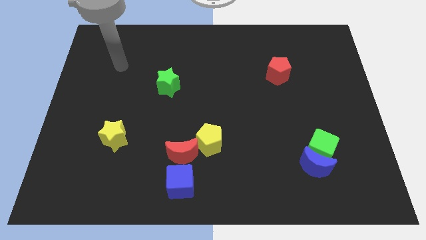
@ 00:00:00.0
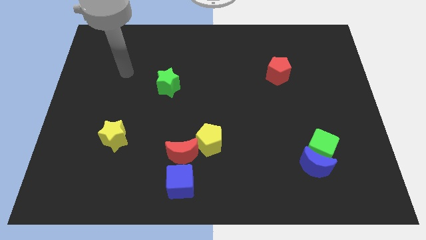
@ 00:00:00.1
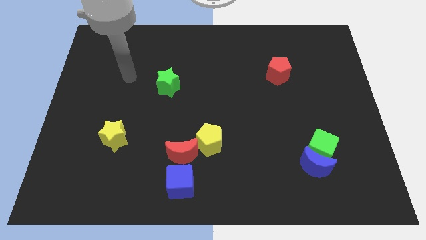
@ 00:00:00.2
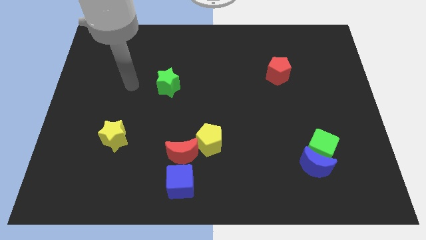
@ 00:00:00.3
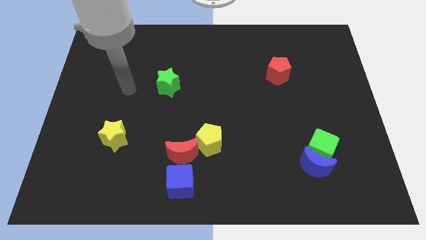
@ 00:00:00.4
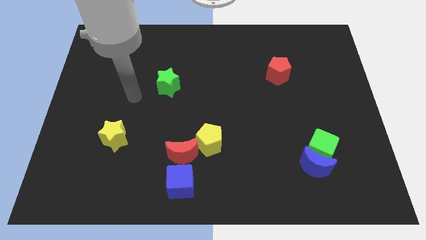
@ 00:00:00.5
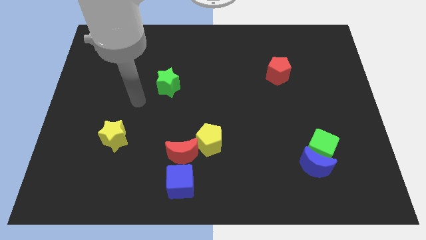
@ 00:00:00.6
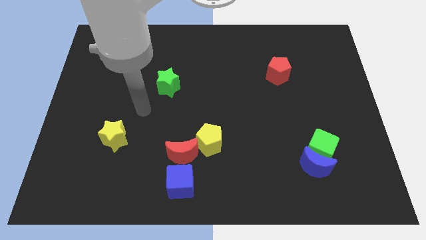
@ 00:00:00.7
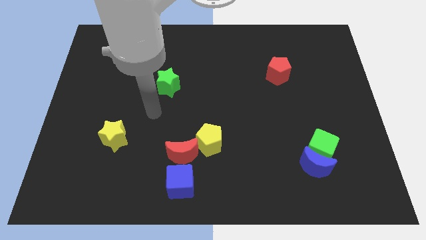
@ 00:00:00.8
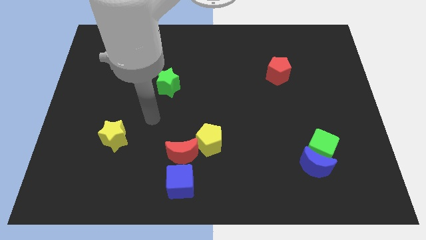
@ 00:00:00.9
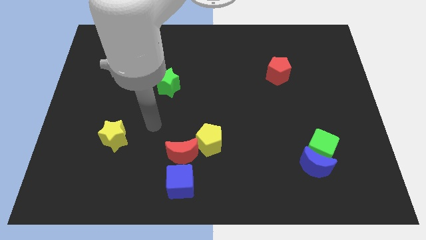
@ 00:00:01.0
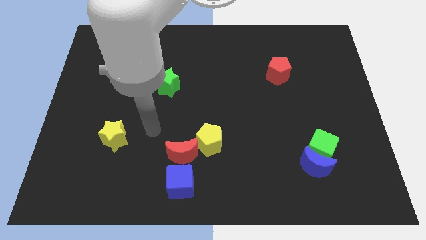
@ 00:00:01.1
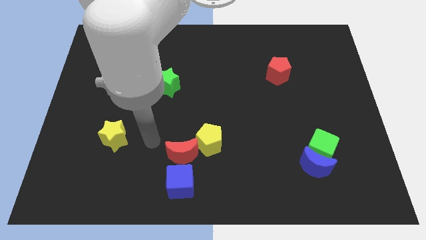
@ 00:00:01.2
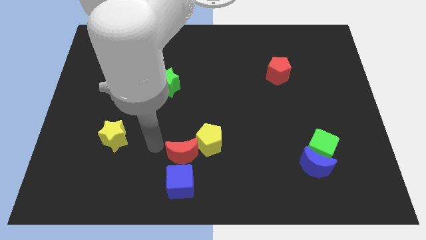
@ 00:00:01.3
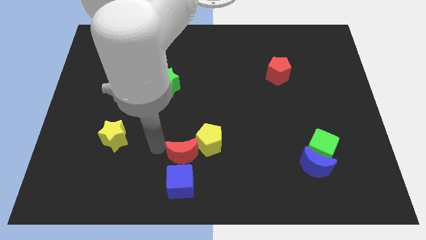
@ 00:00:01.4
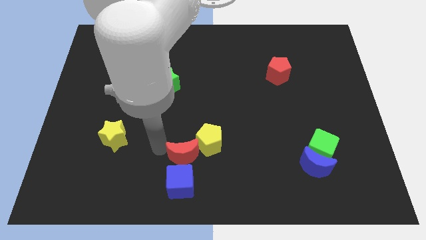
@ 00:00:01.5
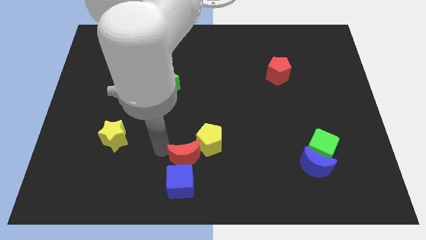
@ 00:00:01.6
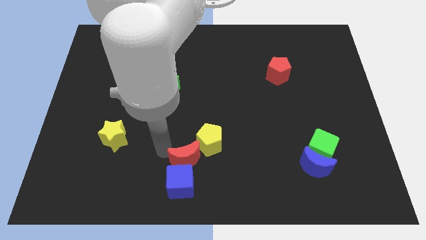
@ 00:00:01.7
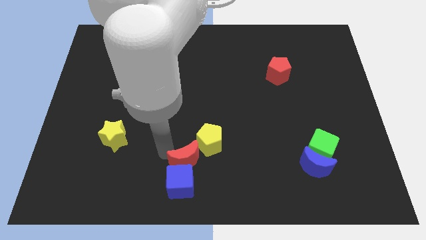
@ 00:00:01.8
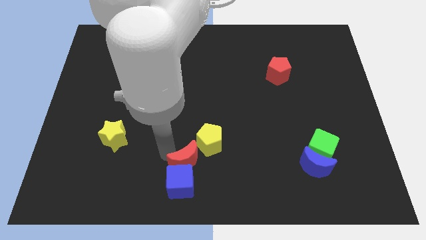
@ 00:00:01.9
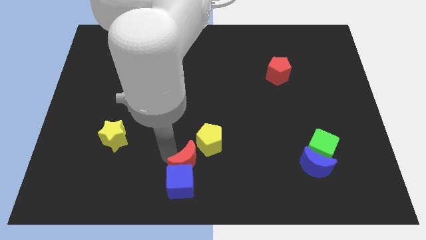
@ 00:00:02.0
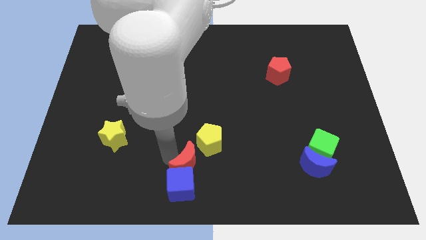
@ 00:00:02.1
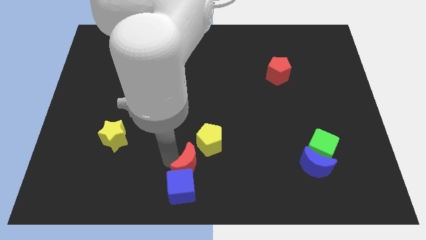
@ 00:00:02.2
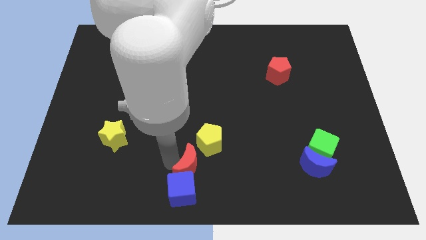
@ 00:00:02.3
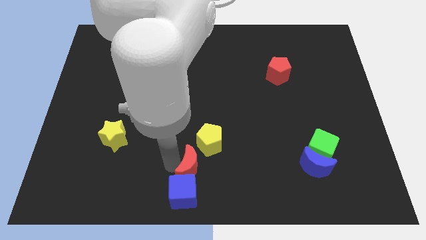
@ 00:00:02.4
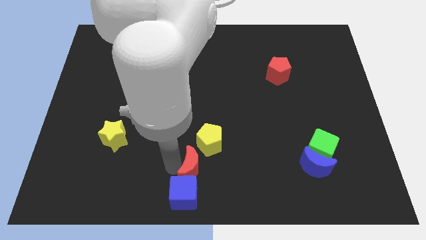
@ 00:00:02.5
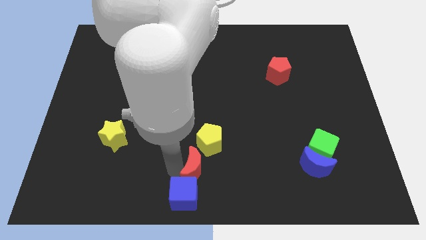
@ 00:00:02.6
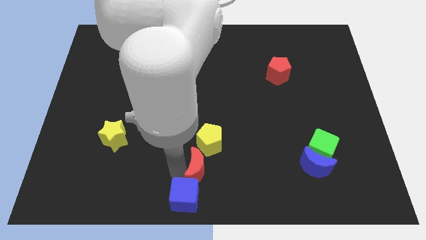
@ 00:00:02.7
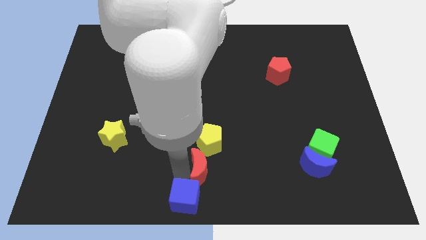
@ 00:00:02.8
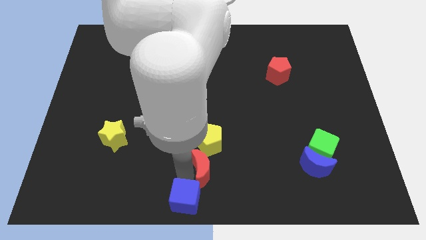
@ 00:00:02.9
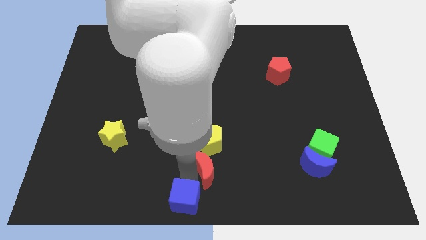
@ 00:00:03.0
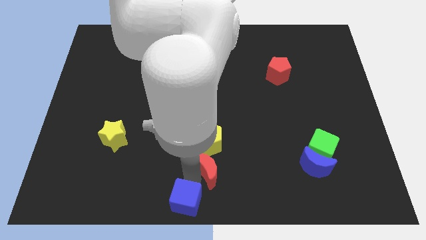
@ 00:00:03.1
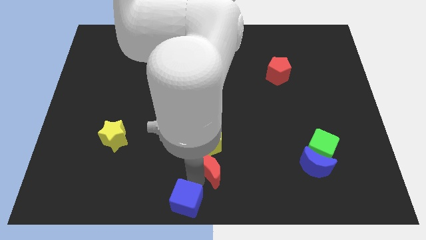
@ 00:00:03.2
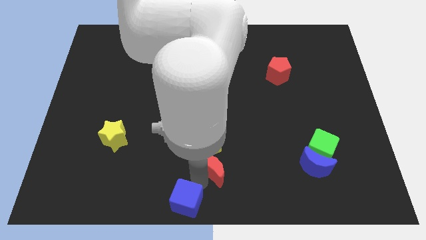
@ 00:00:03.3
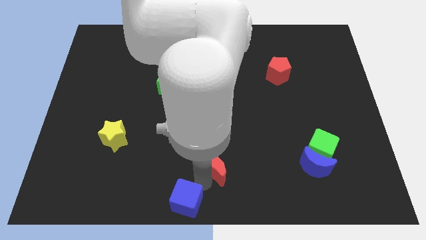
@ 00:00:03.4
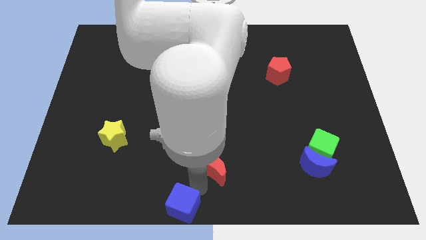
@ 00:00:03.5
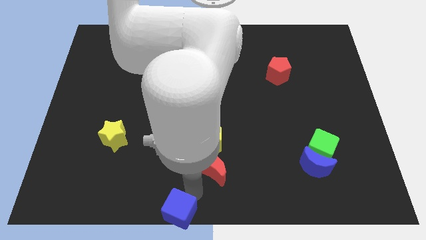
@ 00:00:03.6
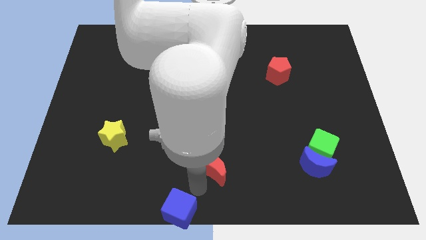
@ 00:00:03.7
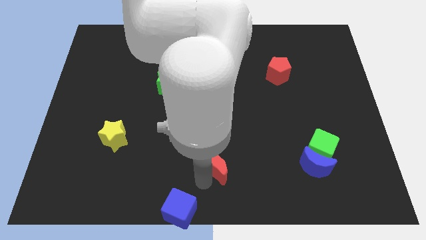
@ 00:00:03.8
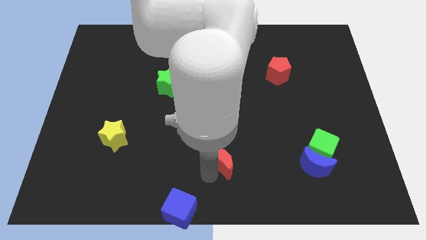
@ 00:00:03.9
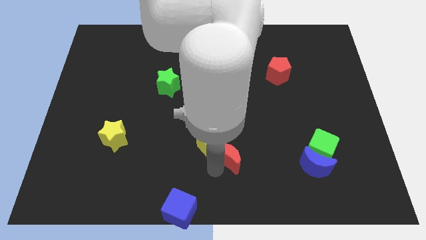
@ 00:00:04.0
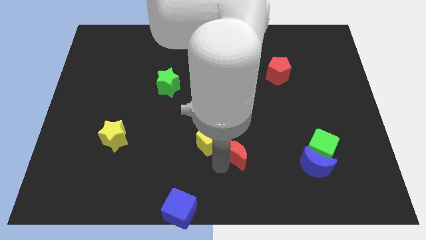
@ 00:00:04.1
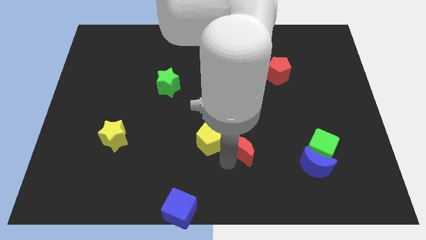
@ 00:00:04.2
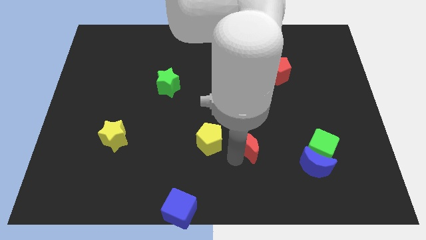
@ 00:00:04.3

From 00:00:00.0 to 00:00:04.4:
slightly push the red moon up and right diagonally

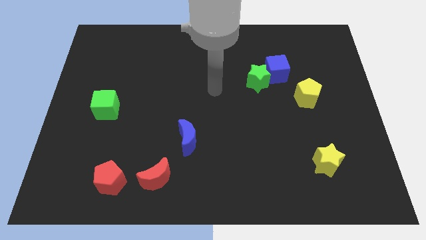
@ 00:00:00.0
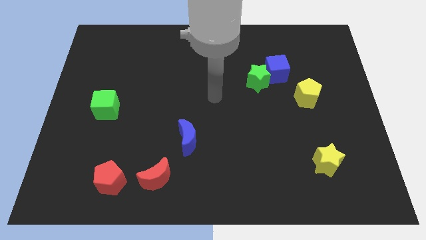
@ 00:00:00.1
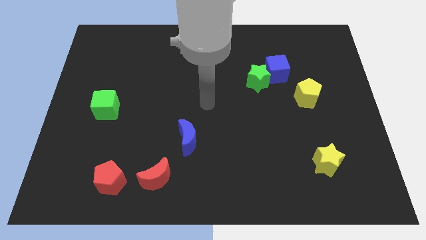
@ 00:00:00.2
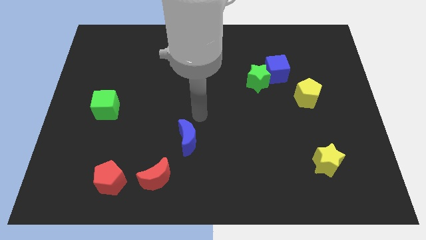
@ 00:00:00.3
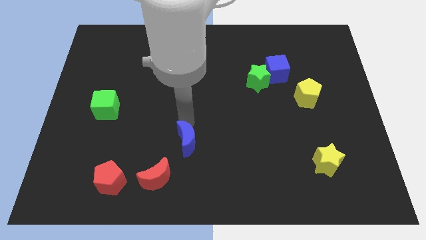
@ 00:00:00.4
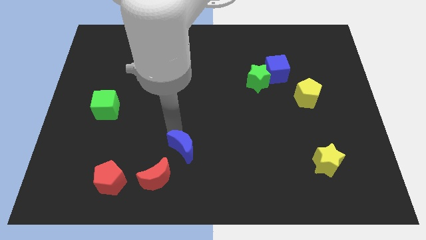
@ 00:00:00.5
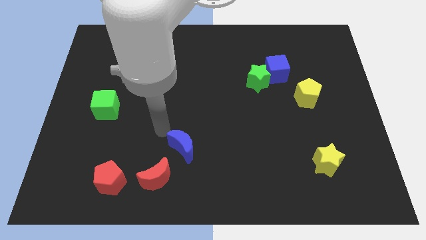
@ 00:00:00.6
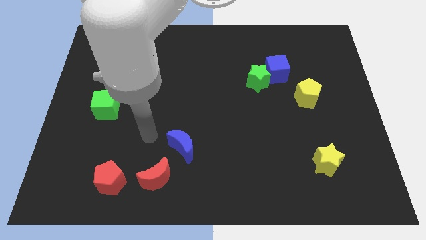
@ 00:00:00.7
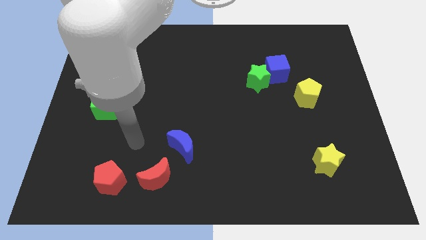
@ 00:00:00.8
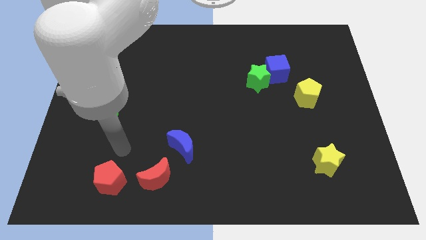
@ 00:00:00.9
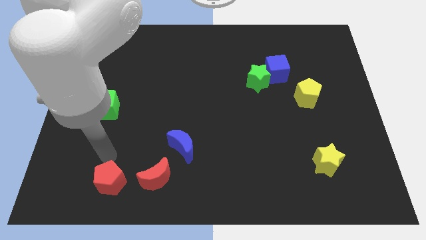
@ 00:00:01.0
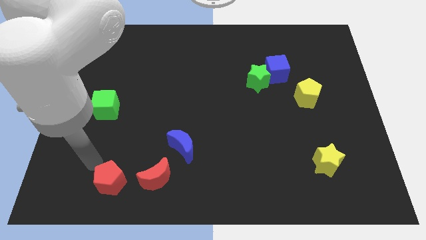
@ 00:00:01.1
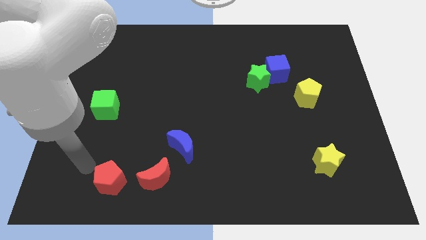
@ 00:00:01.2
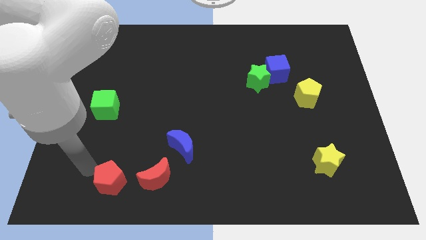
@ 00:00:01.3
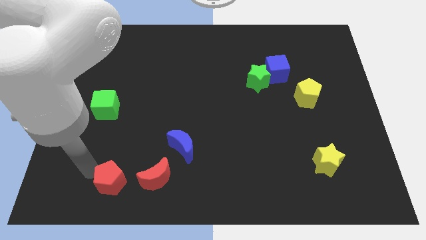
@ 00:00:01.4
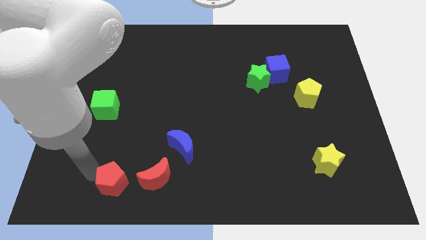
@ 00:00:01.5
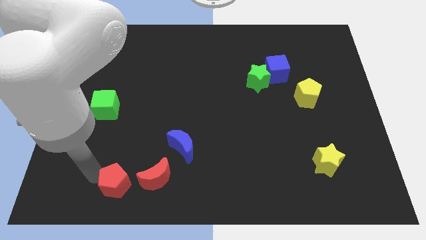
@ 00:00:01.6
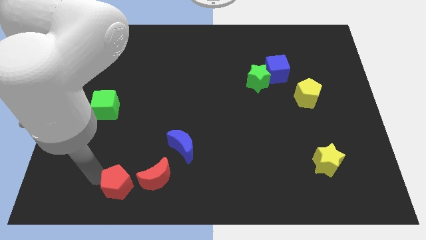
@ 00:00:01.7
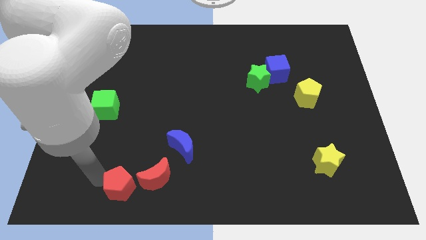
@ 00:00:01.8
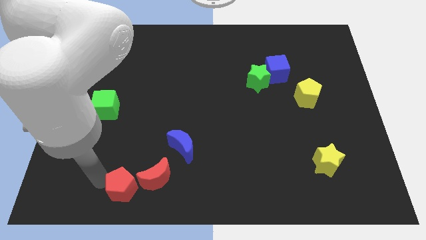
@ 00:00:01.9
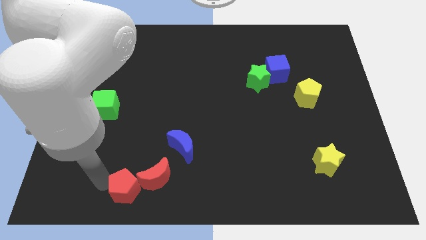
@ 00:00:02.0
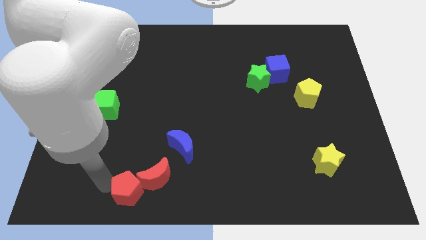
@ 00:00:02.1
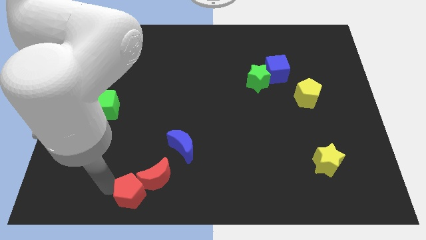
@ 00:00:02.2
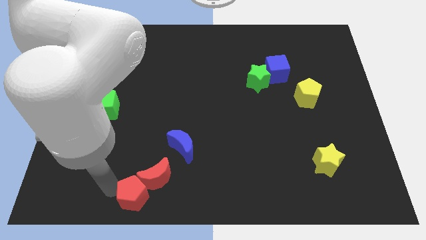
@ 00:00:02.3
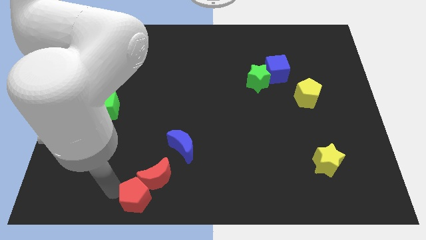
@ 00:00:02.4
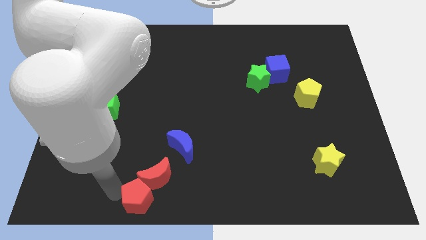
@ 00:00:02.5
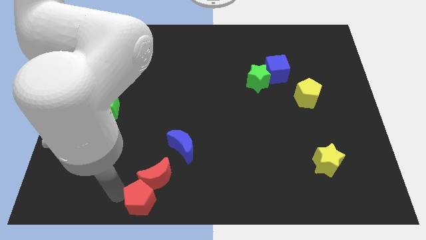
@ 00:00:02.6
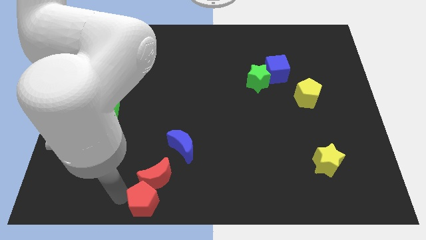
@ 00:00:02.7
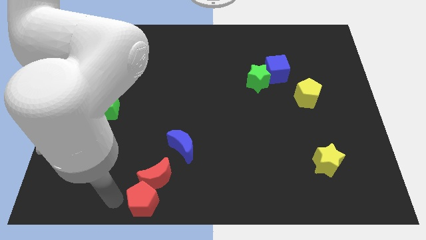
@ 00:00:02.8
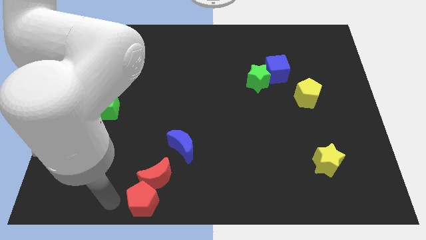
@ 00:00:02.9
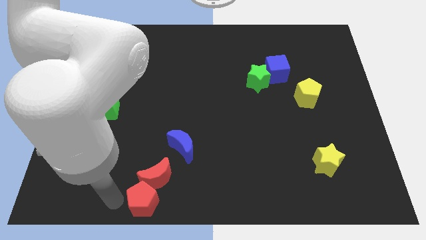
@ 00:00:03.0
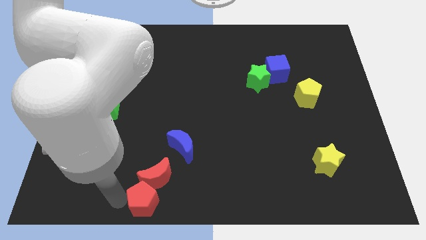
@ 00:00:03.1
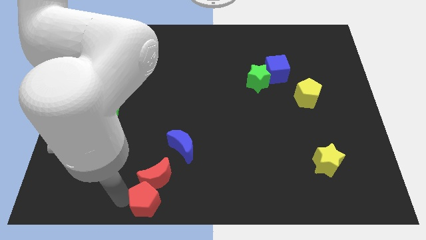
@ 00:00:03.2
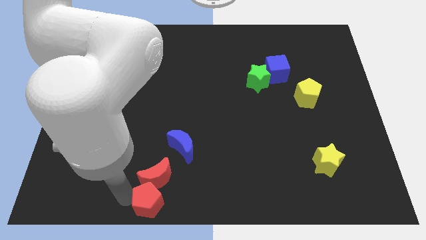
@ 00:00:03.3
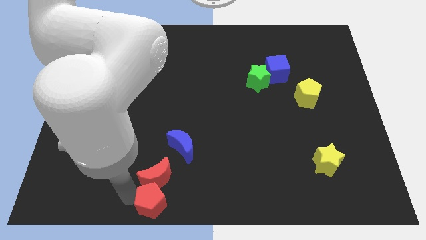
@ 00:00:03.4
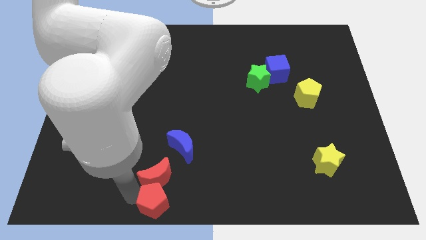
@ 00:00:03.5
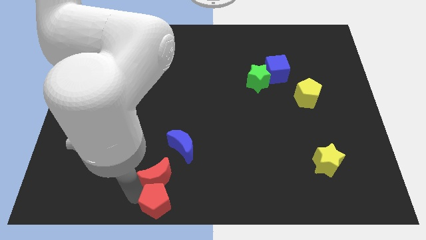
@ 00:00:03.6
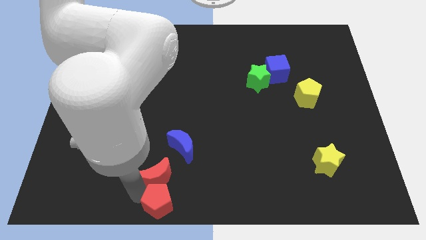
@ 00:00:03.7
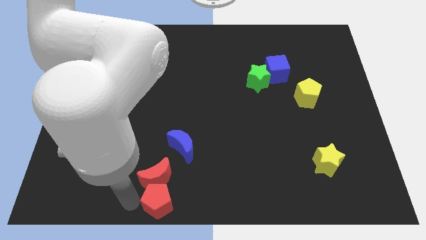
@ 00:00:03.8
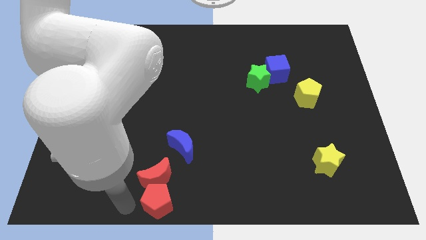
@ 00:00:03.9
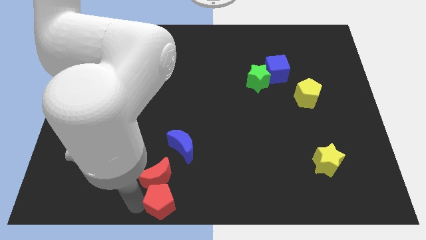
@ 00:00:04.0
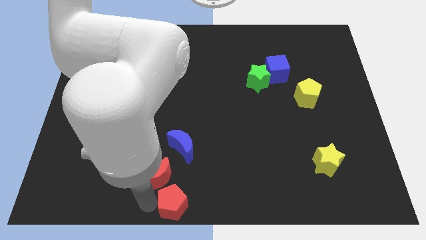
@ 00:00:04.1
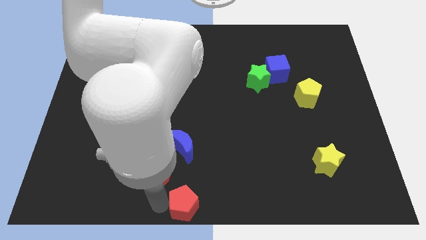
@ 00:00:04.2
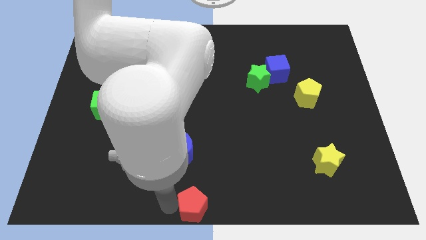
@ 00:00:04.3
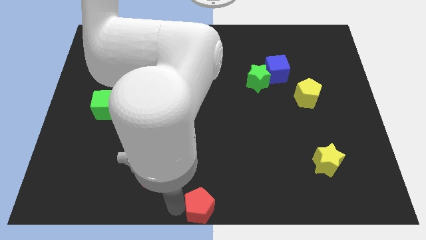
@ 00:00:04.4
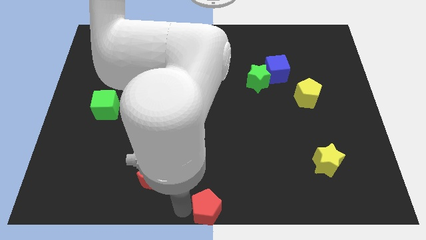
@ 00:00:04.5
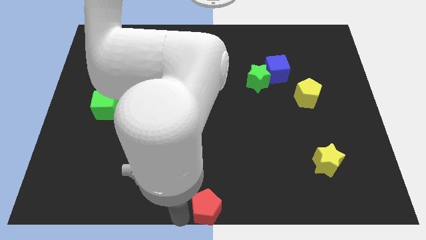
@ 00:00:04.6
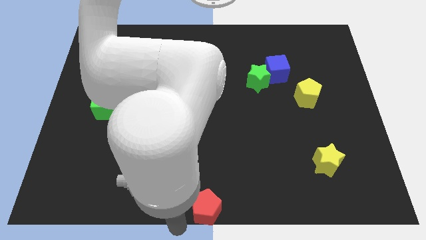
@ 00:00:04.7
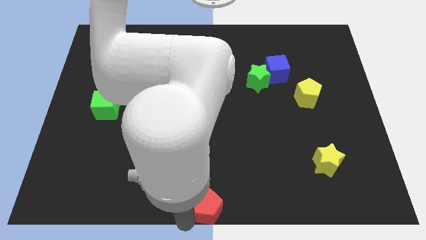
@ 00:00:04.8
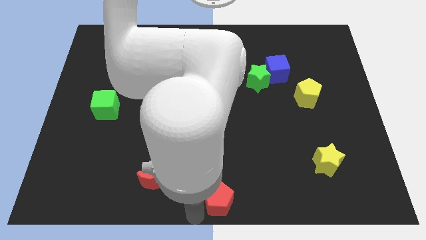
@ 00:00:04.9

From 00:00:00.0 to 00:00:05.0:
push the red pentagon right
